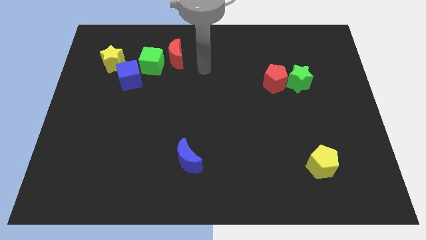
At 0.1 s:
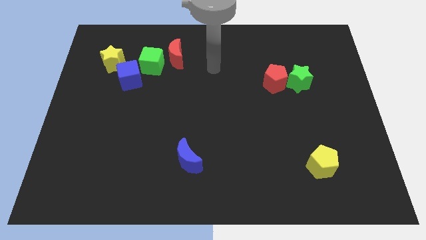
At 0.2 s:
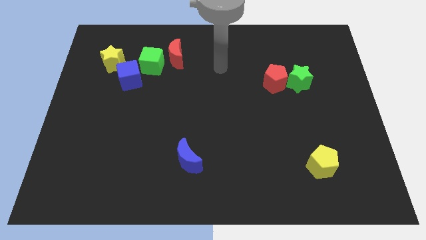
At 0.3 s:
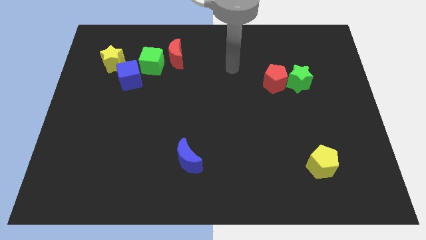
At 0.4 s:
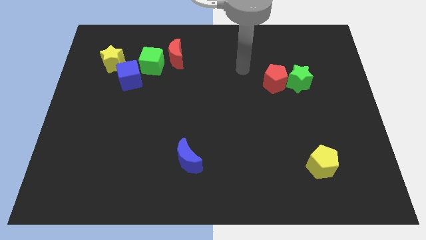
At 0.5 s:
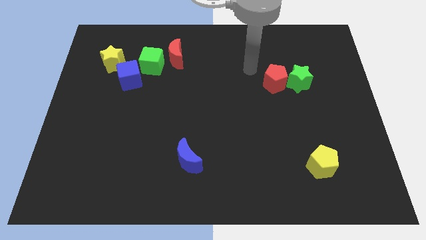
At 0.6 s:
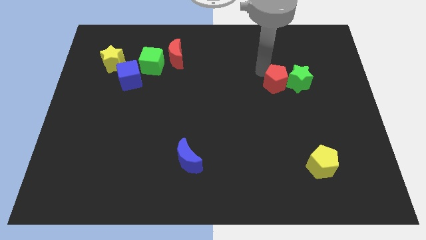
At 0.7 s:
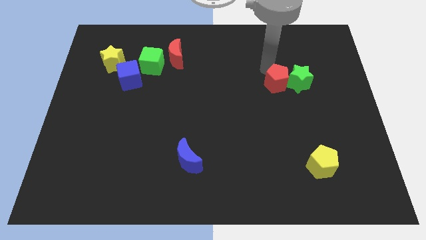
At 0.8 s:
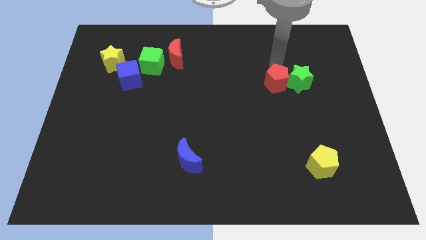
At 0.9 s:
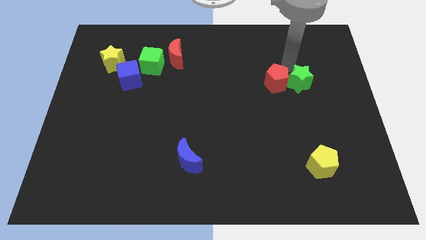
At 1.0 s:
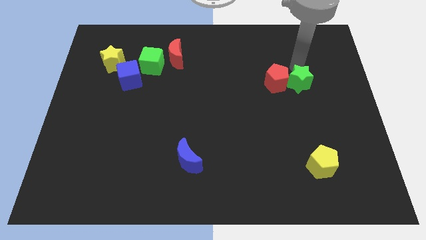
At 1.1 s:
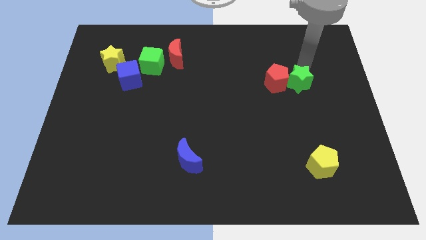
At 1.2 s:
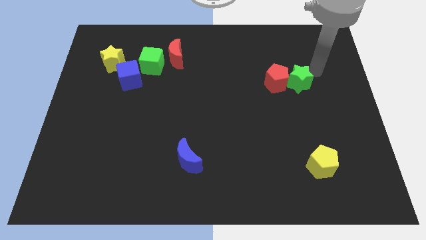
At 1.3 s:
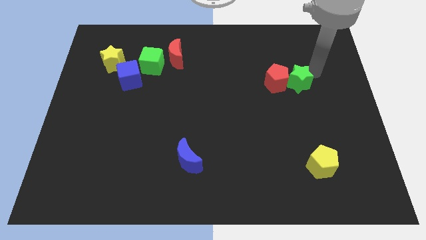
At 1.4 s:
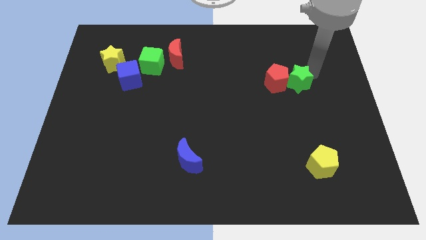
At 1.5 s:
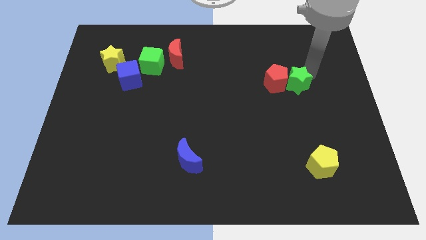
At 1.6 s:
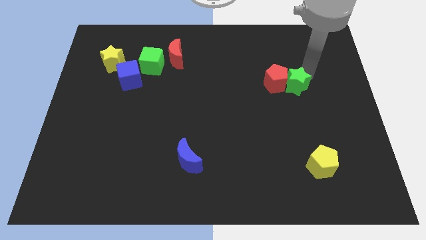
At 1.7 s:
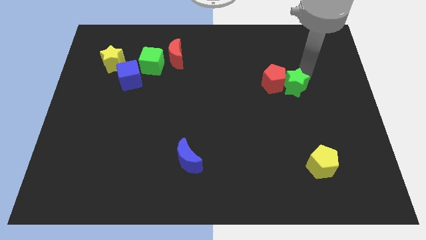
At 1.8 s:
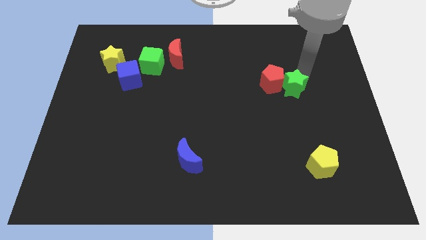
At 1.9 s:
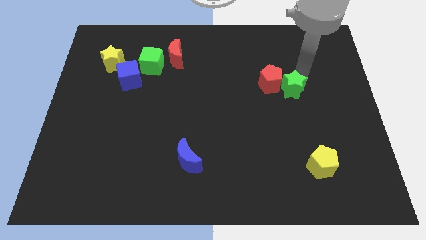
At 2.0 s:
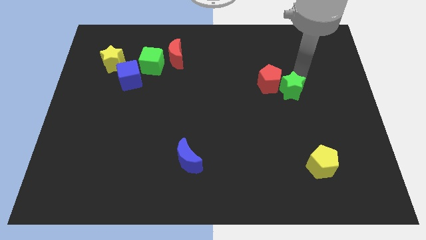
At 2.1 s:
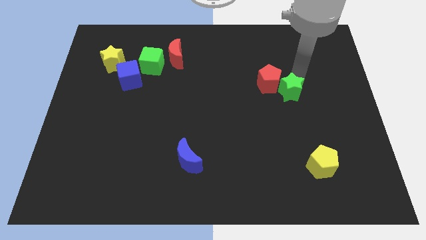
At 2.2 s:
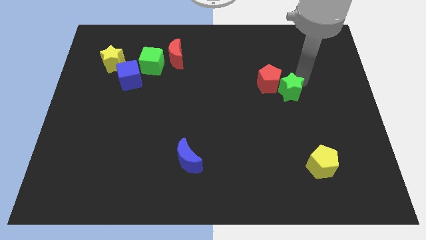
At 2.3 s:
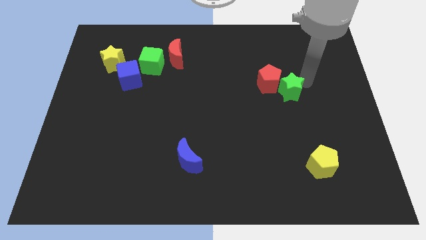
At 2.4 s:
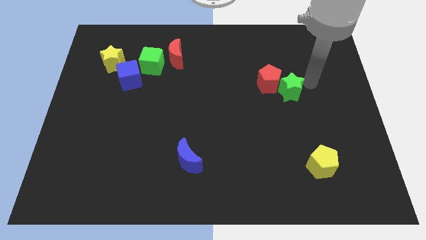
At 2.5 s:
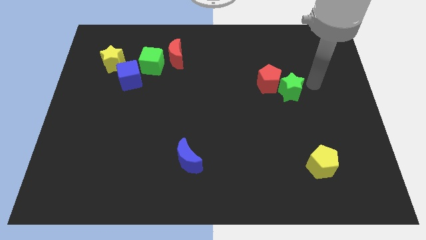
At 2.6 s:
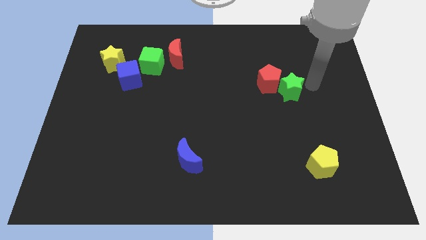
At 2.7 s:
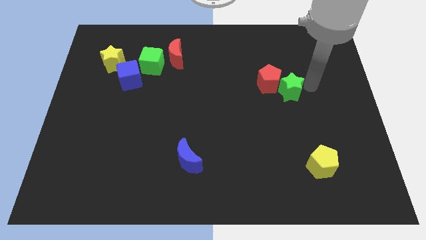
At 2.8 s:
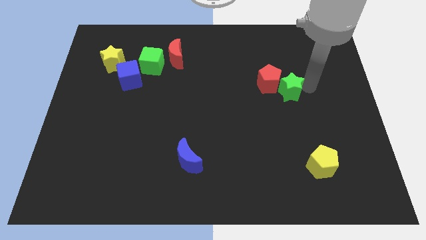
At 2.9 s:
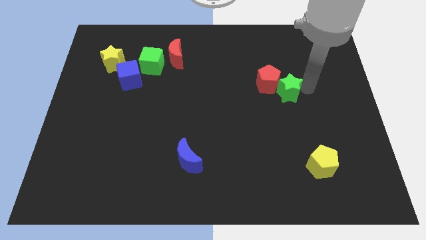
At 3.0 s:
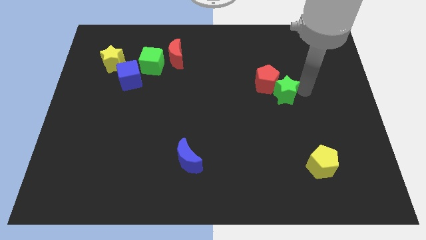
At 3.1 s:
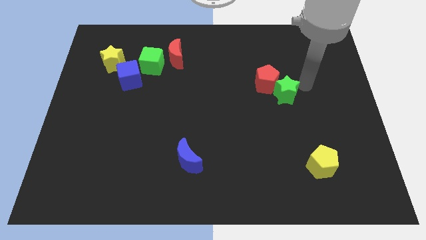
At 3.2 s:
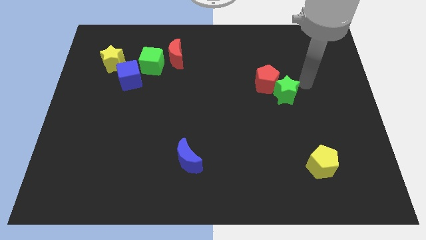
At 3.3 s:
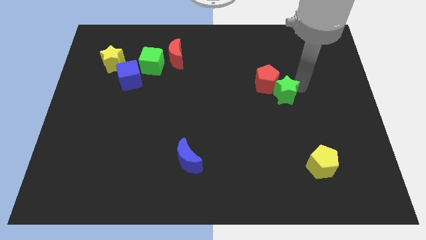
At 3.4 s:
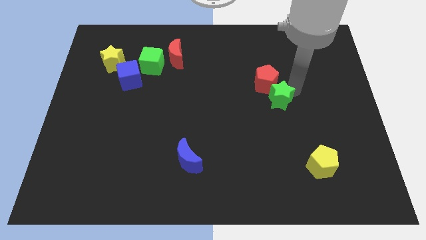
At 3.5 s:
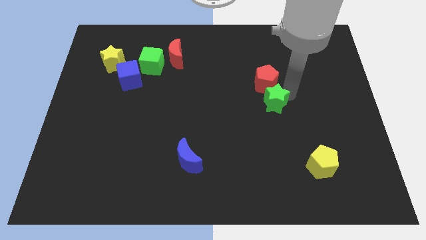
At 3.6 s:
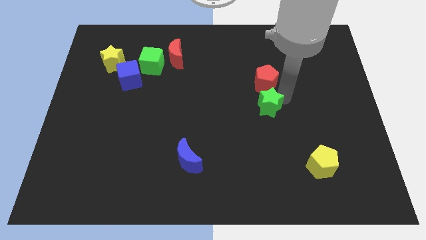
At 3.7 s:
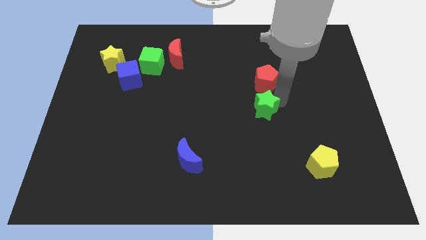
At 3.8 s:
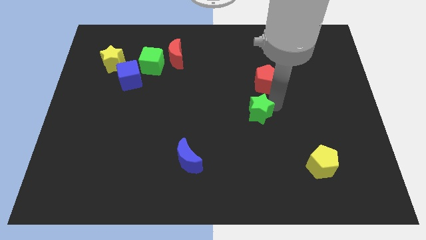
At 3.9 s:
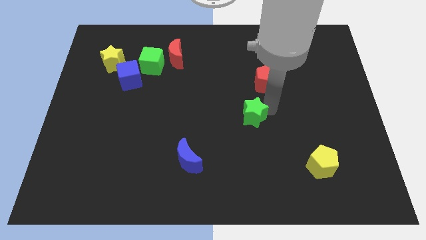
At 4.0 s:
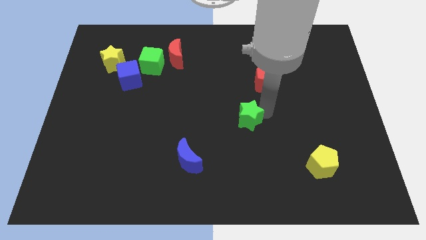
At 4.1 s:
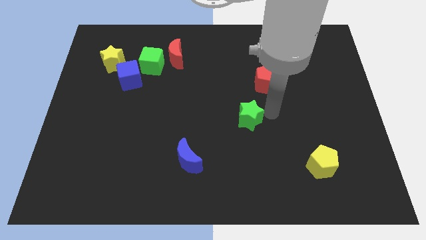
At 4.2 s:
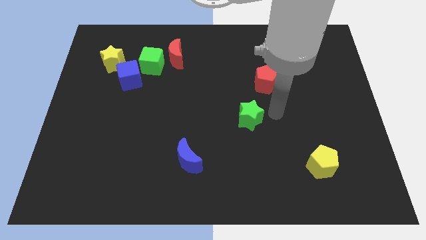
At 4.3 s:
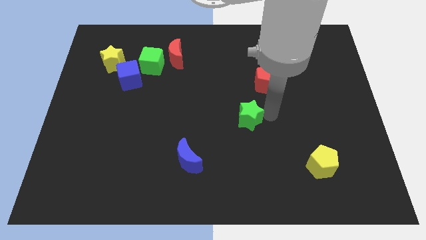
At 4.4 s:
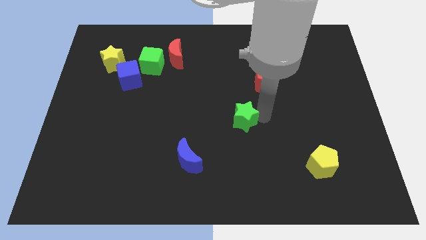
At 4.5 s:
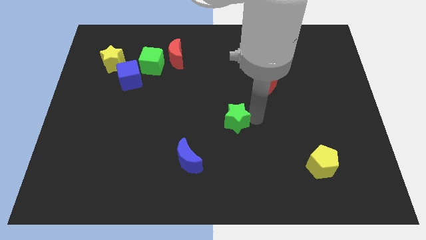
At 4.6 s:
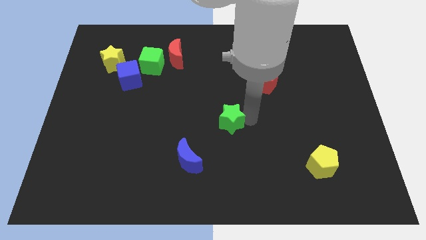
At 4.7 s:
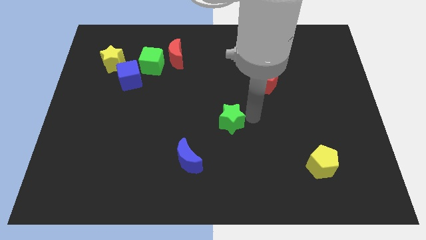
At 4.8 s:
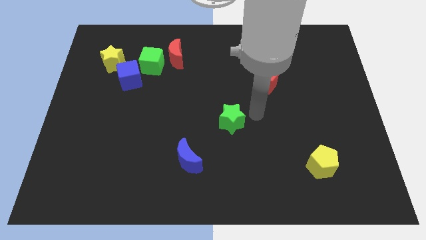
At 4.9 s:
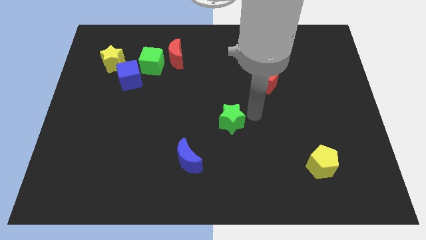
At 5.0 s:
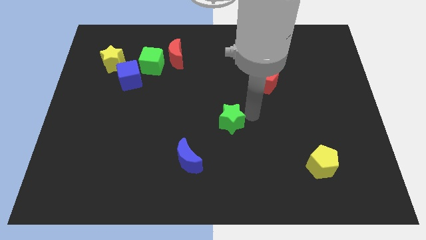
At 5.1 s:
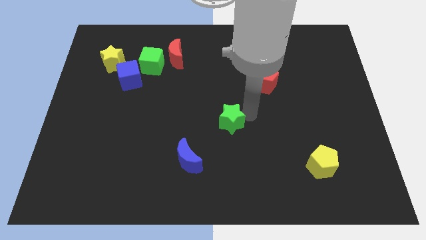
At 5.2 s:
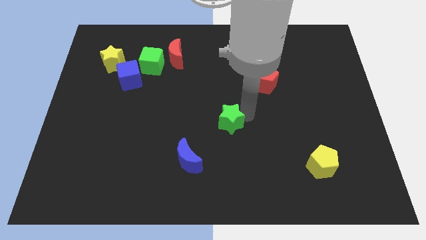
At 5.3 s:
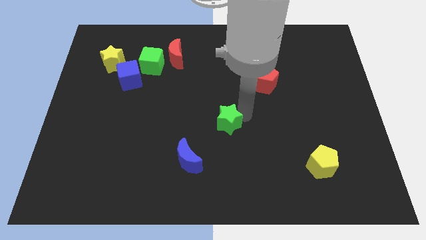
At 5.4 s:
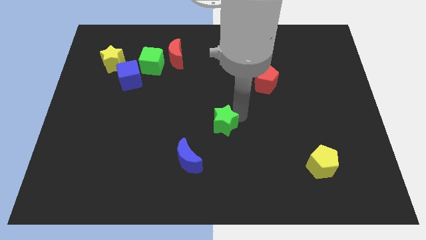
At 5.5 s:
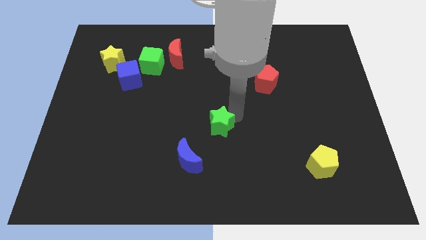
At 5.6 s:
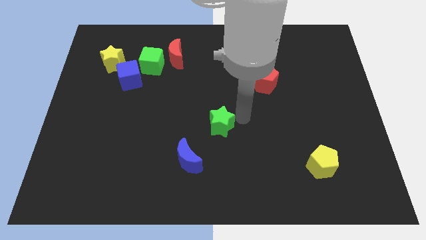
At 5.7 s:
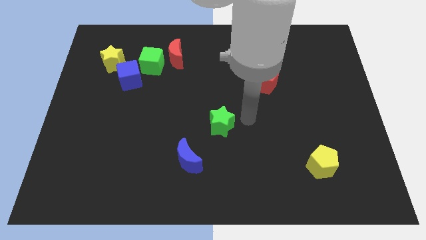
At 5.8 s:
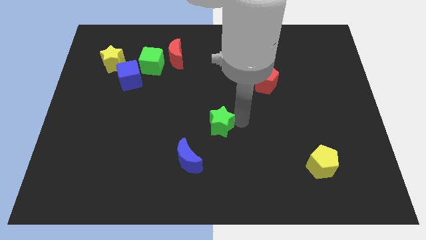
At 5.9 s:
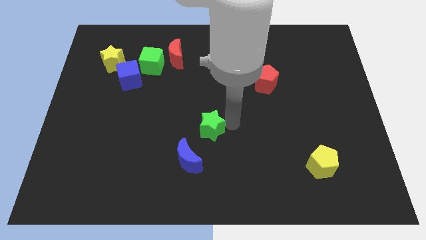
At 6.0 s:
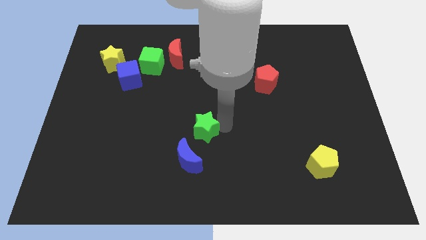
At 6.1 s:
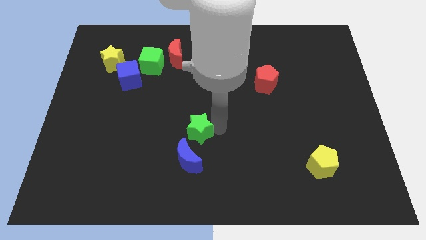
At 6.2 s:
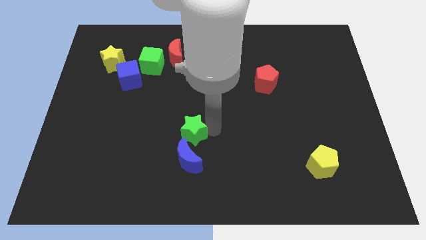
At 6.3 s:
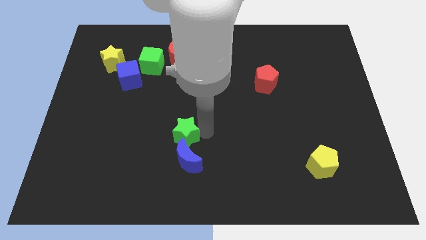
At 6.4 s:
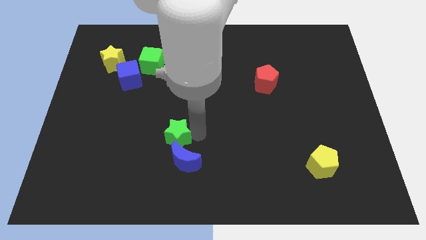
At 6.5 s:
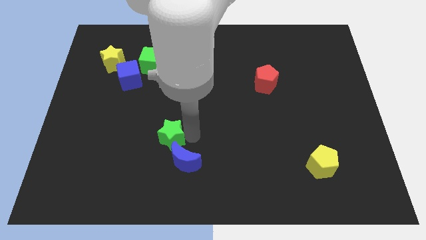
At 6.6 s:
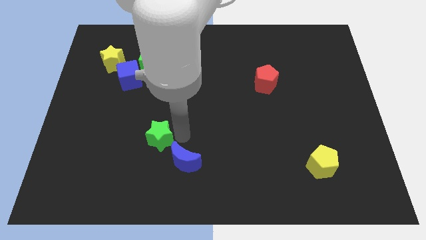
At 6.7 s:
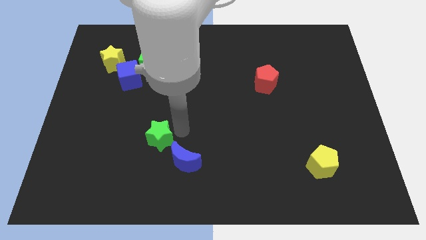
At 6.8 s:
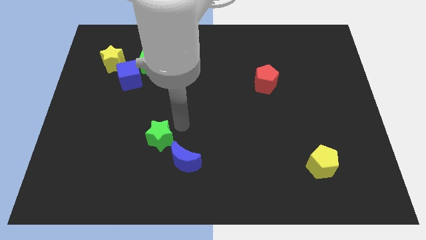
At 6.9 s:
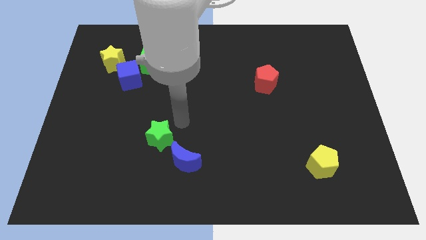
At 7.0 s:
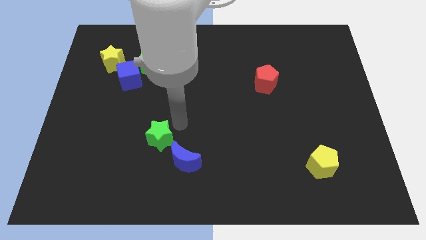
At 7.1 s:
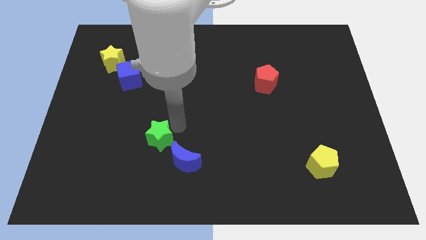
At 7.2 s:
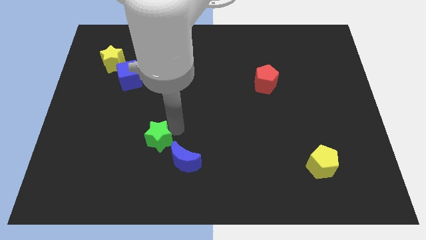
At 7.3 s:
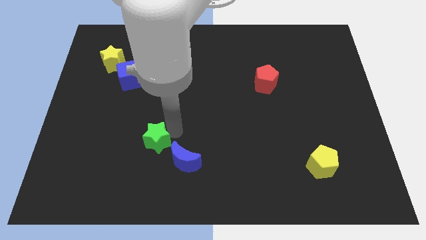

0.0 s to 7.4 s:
put the green star to the left side of the blue moon
